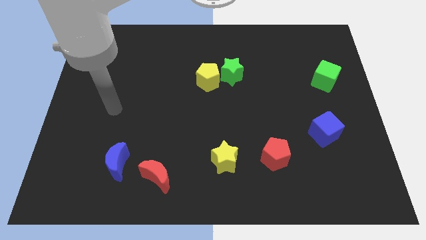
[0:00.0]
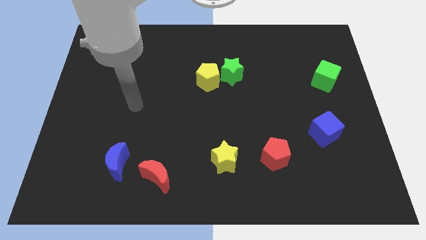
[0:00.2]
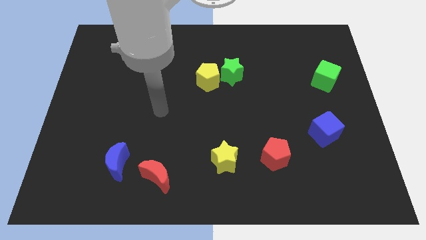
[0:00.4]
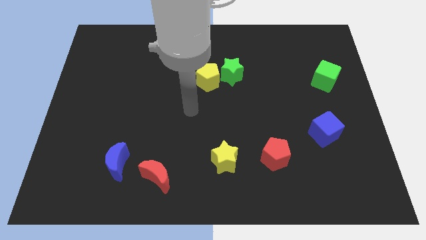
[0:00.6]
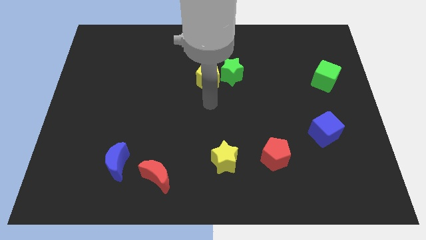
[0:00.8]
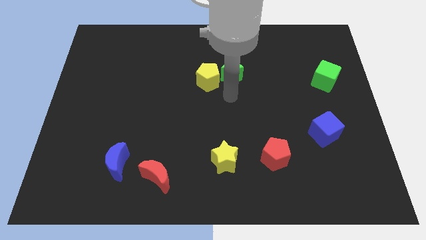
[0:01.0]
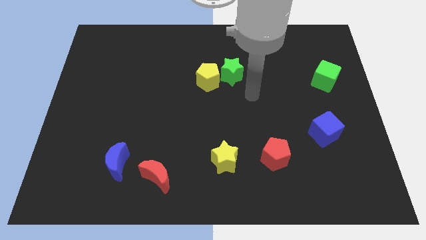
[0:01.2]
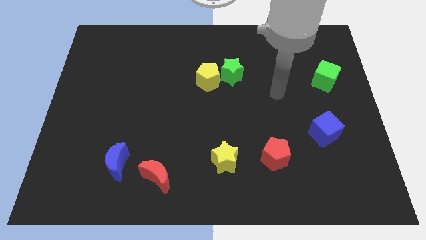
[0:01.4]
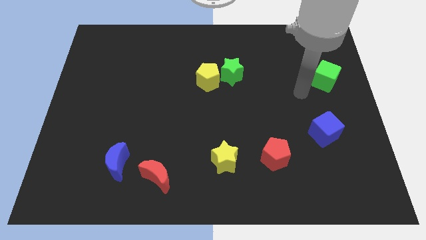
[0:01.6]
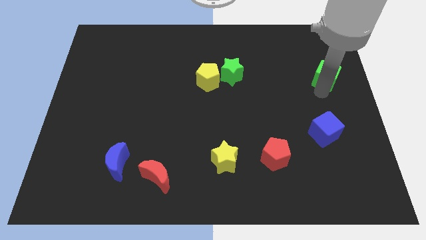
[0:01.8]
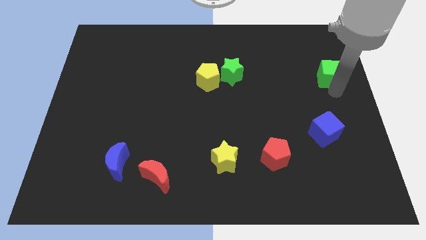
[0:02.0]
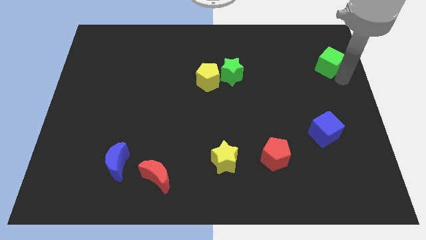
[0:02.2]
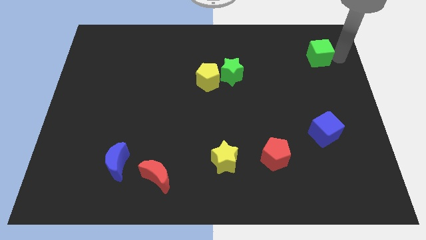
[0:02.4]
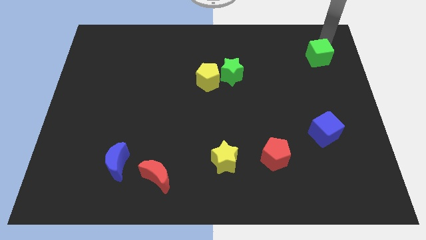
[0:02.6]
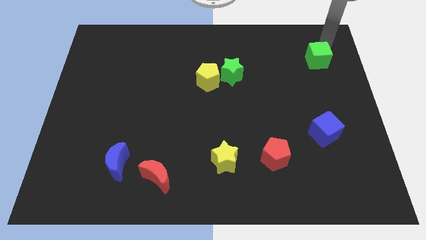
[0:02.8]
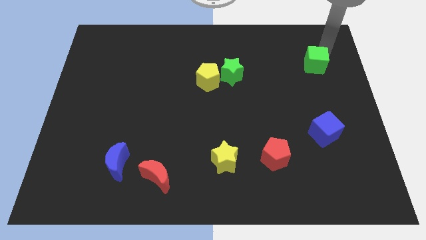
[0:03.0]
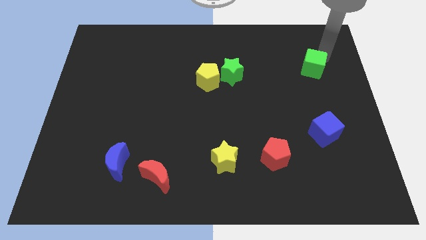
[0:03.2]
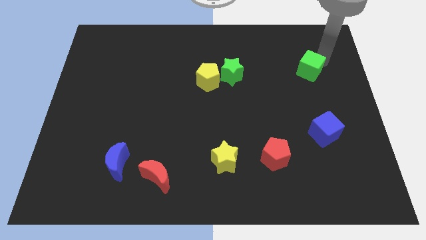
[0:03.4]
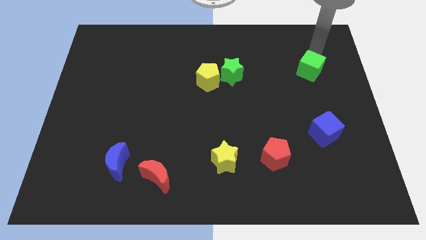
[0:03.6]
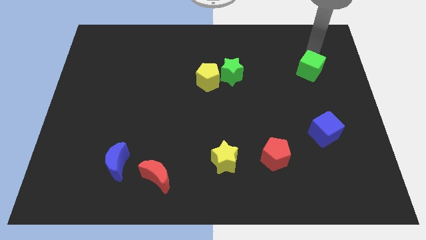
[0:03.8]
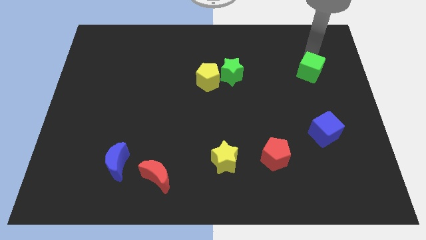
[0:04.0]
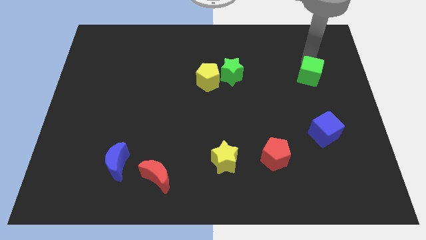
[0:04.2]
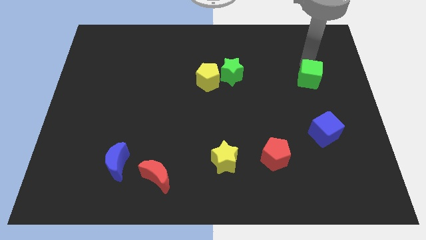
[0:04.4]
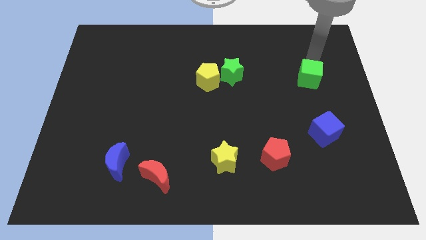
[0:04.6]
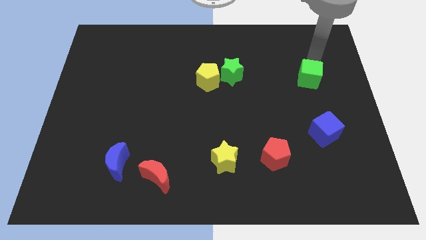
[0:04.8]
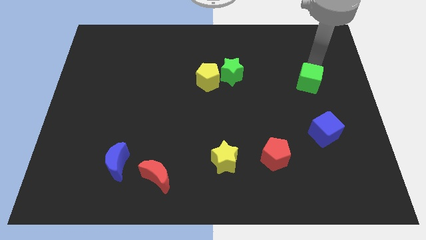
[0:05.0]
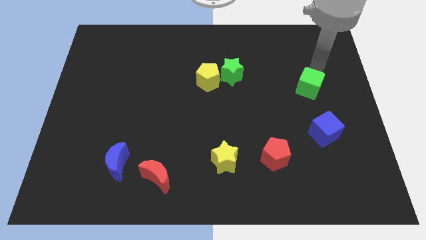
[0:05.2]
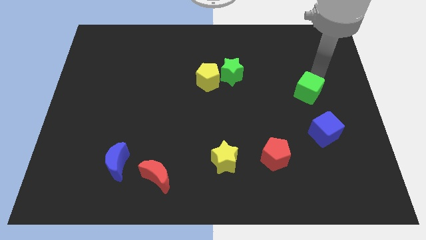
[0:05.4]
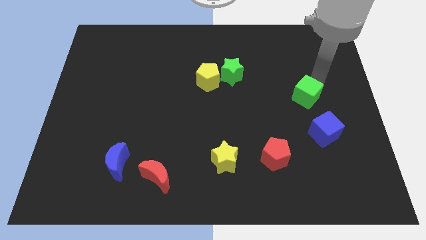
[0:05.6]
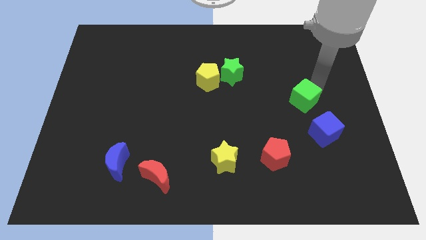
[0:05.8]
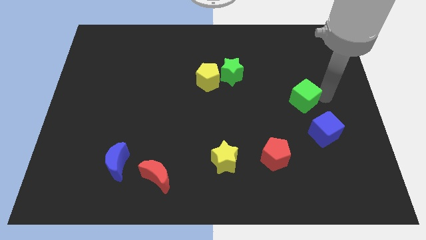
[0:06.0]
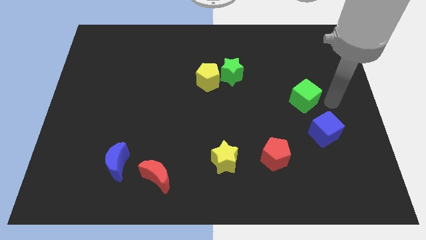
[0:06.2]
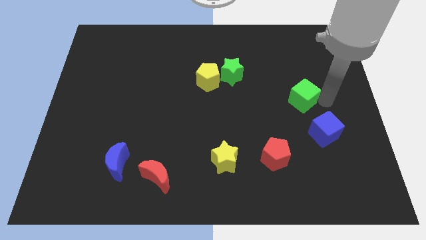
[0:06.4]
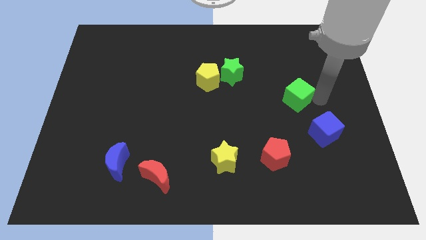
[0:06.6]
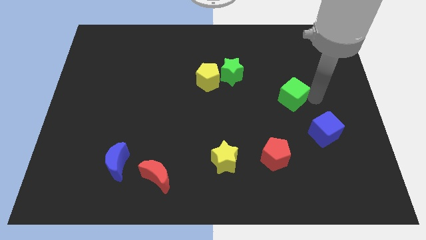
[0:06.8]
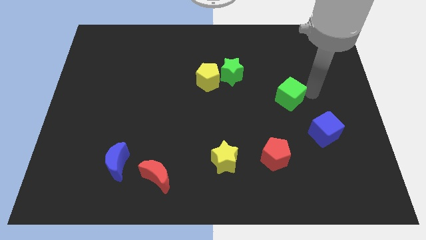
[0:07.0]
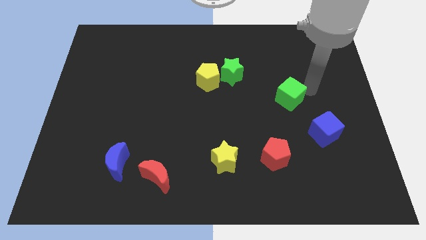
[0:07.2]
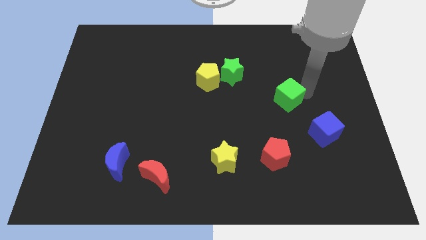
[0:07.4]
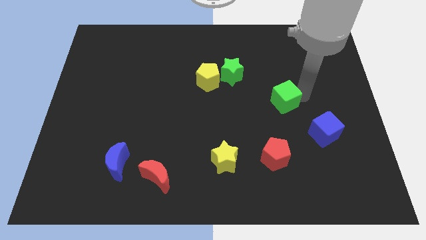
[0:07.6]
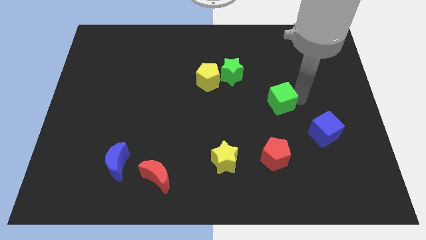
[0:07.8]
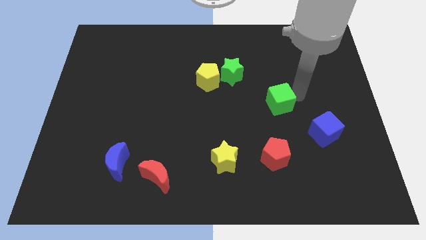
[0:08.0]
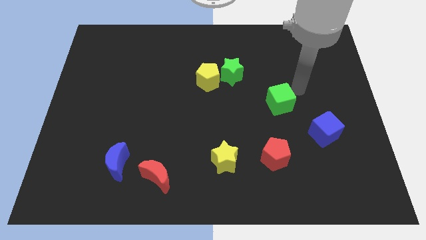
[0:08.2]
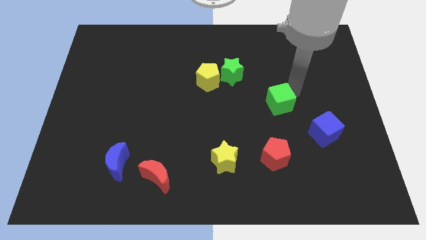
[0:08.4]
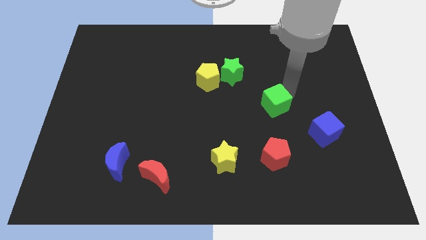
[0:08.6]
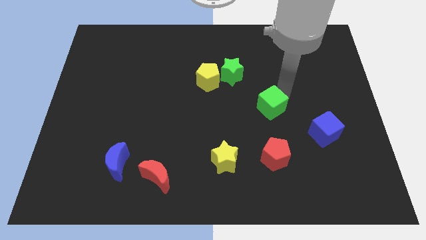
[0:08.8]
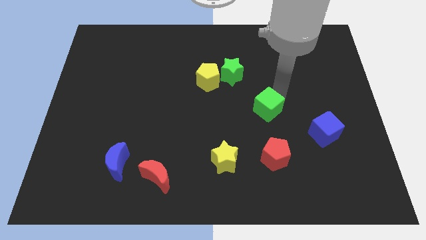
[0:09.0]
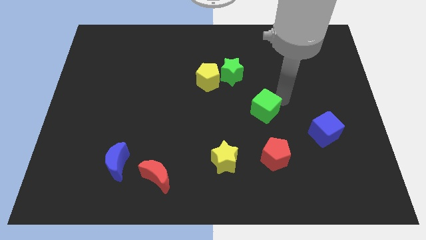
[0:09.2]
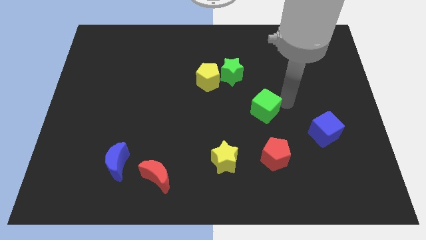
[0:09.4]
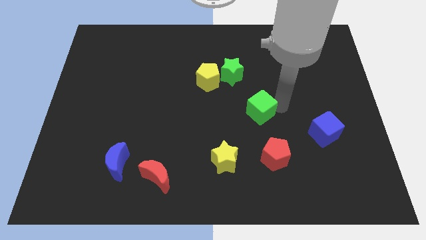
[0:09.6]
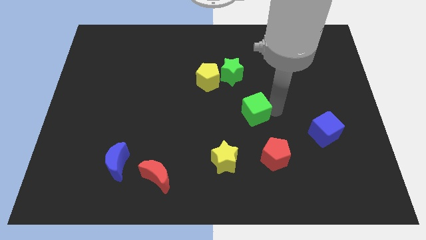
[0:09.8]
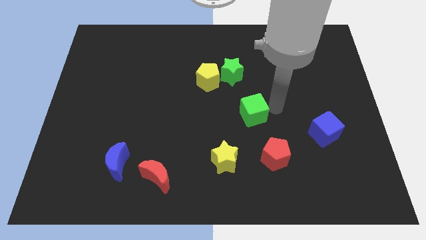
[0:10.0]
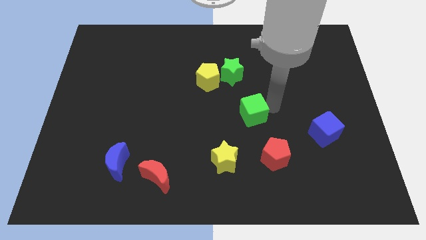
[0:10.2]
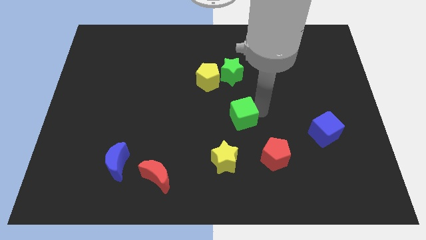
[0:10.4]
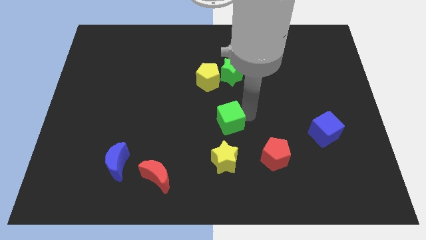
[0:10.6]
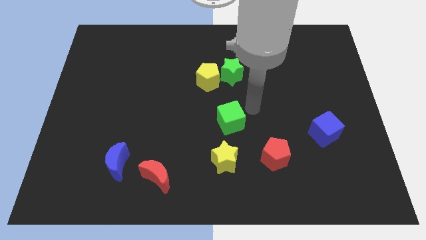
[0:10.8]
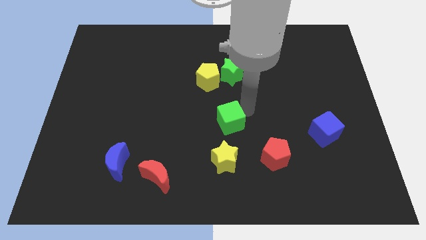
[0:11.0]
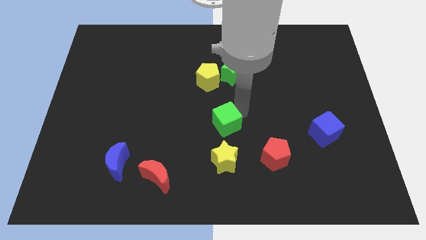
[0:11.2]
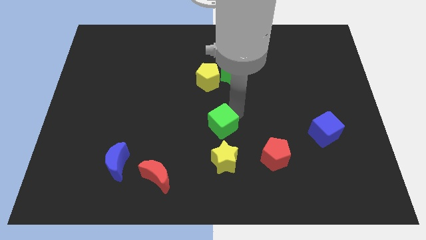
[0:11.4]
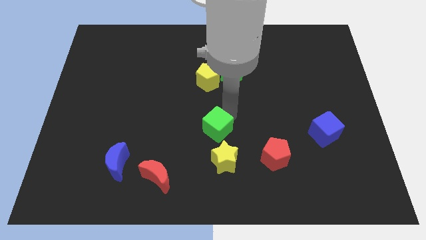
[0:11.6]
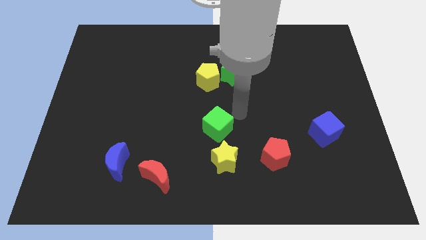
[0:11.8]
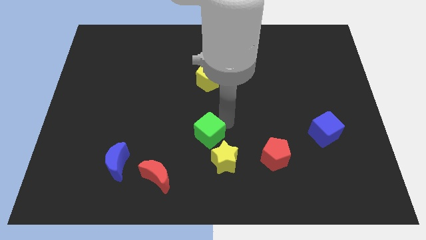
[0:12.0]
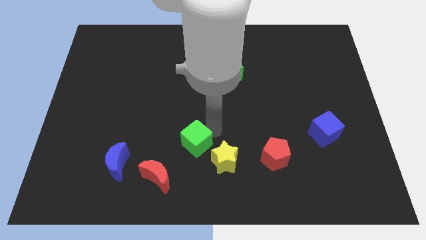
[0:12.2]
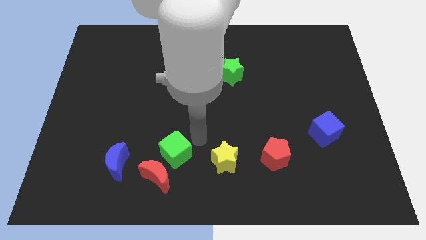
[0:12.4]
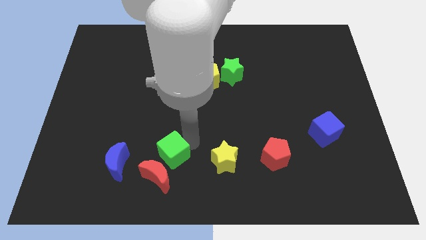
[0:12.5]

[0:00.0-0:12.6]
put the green cube close to the red moon
